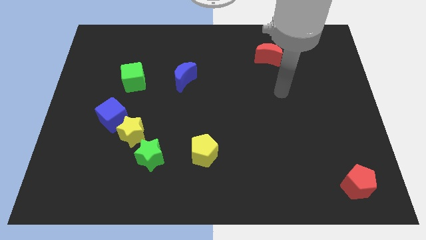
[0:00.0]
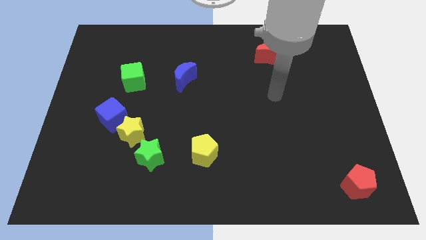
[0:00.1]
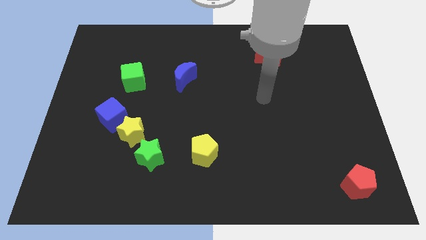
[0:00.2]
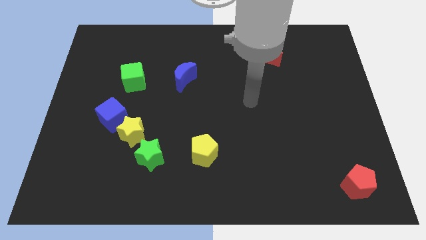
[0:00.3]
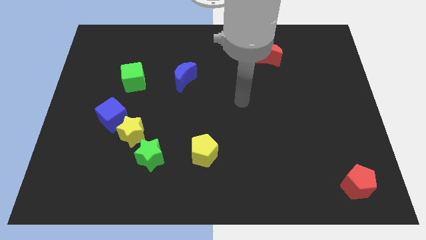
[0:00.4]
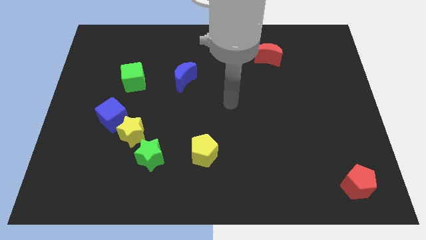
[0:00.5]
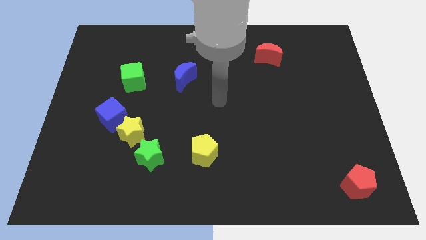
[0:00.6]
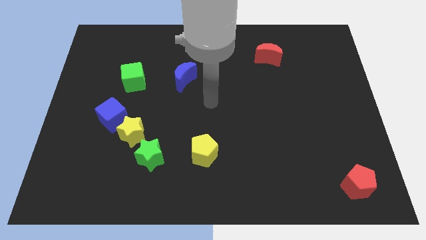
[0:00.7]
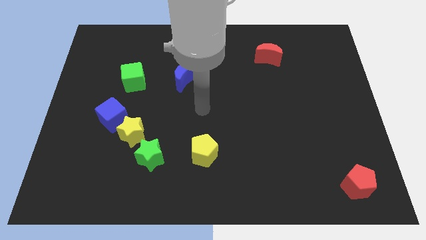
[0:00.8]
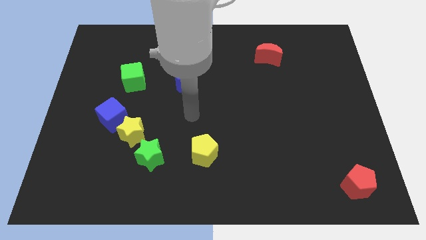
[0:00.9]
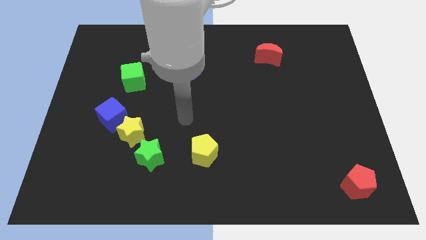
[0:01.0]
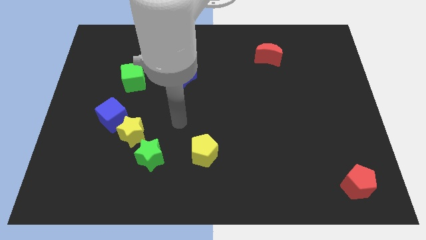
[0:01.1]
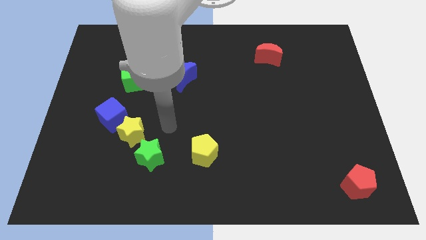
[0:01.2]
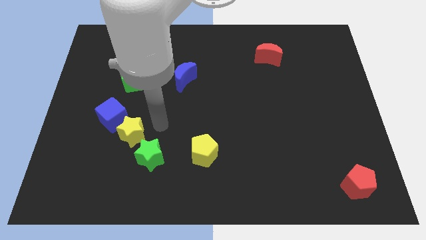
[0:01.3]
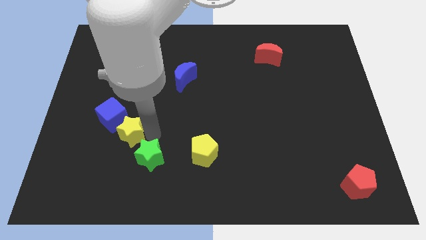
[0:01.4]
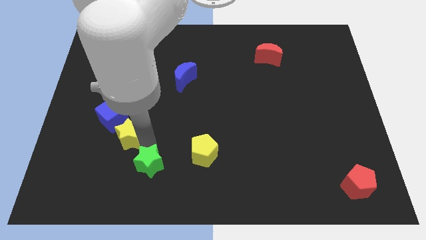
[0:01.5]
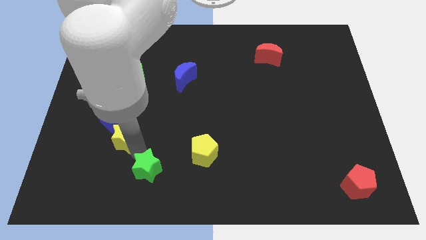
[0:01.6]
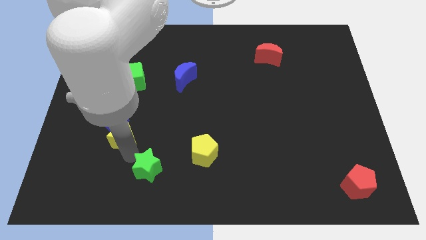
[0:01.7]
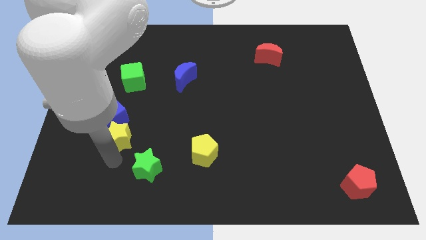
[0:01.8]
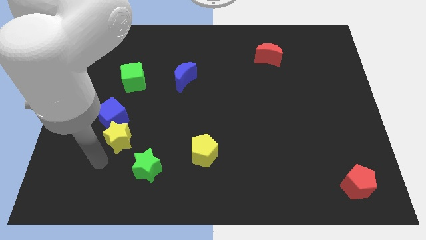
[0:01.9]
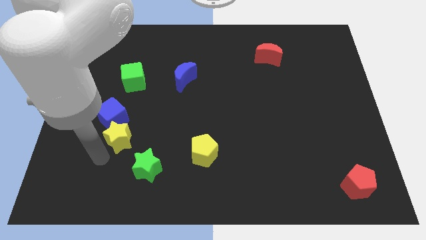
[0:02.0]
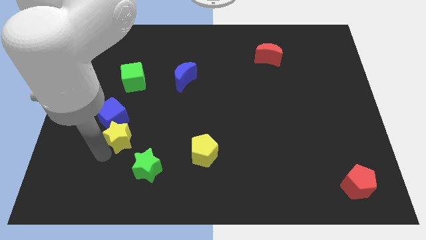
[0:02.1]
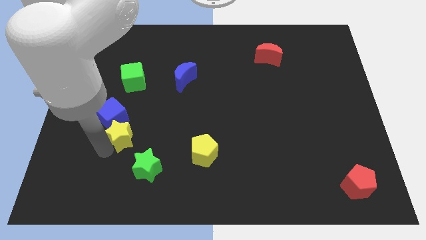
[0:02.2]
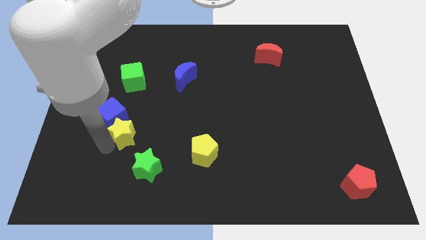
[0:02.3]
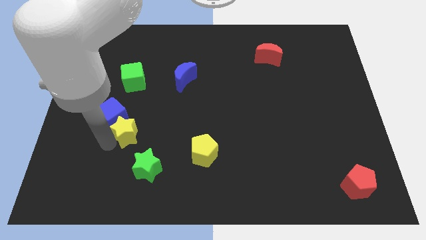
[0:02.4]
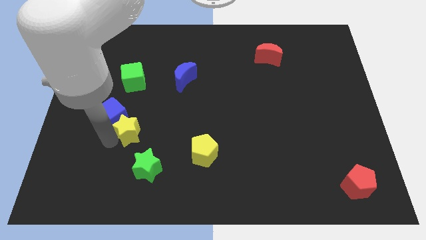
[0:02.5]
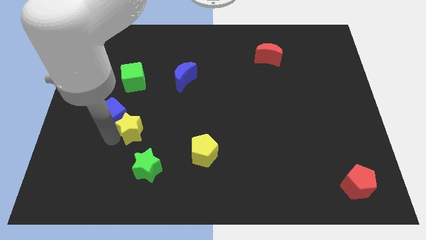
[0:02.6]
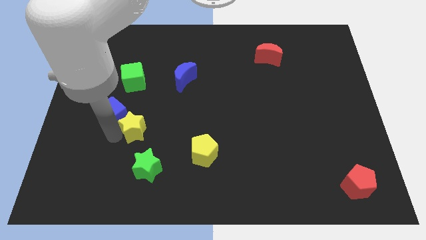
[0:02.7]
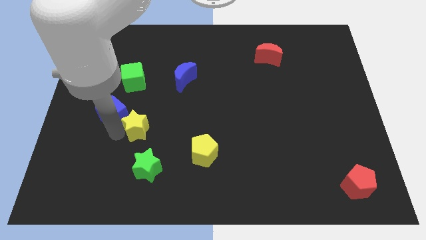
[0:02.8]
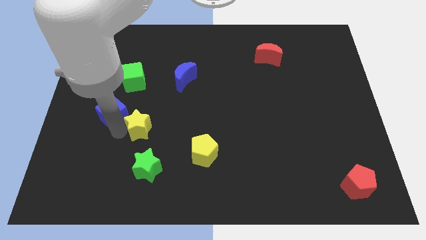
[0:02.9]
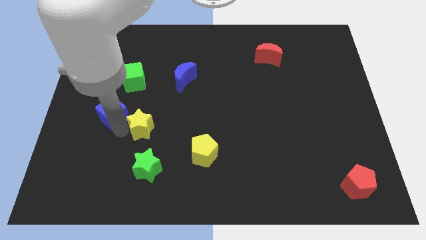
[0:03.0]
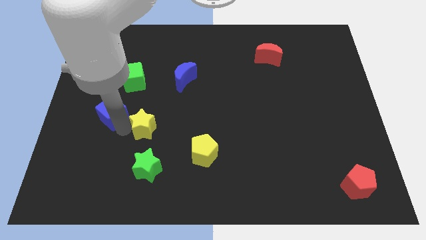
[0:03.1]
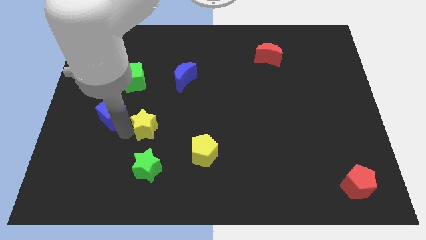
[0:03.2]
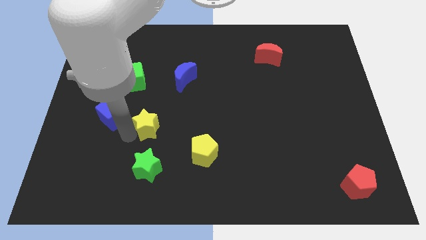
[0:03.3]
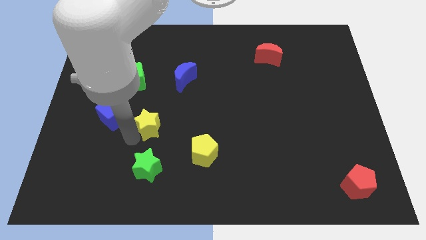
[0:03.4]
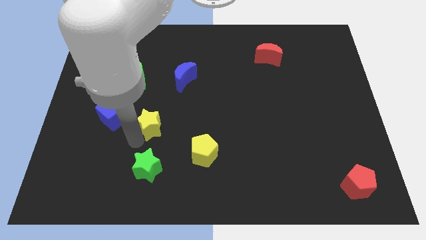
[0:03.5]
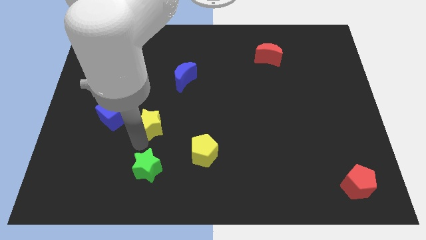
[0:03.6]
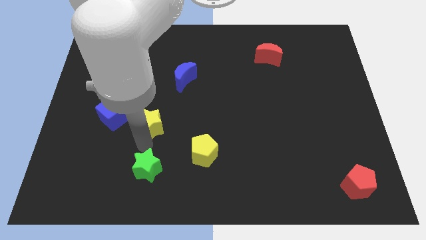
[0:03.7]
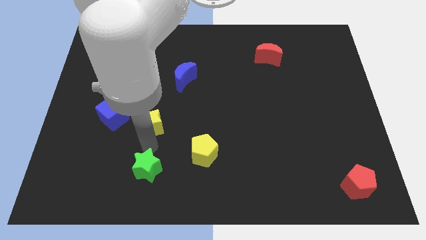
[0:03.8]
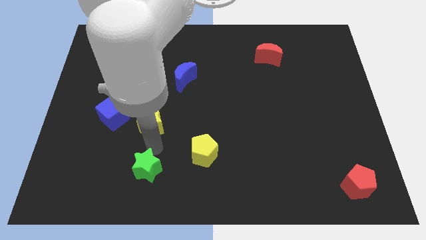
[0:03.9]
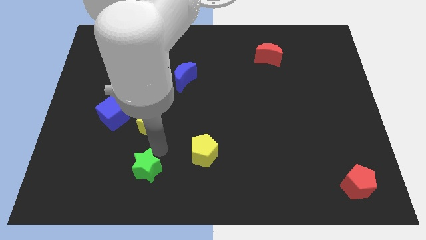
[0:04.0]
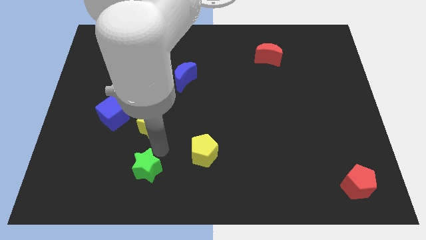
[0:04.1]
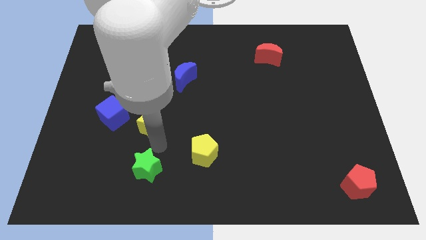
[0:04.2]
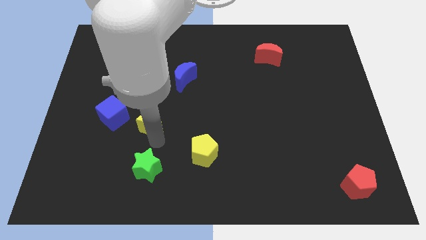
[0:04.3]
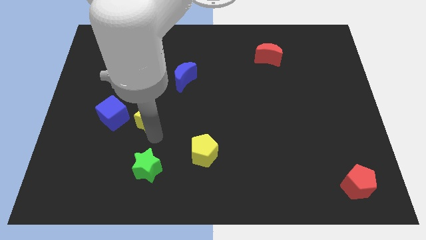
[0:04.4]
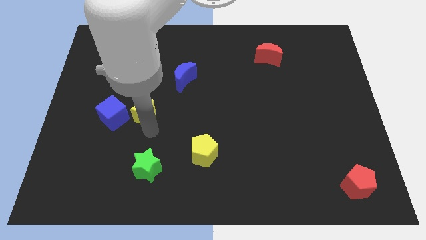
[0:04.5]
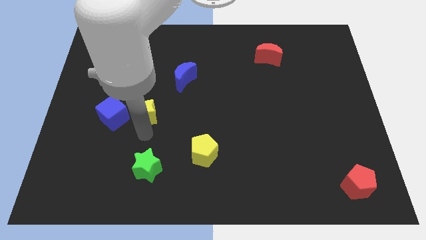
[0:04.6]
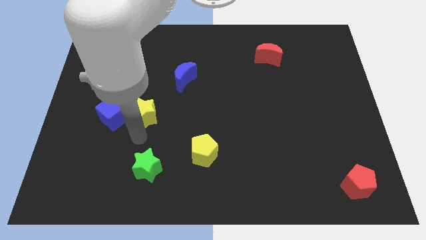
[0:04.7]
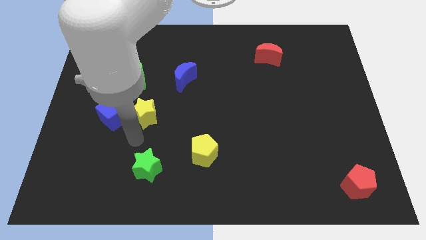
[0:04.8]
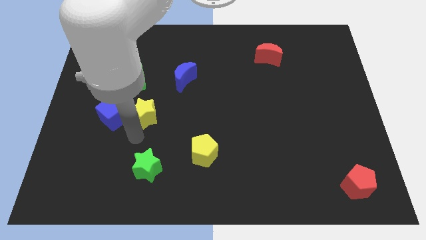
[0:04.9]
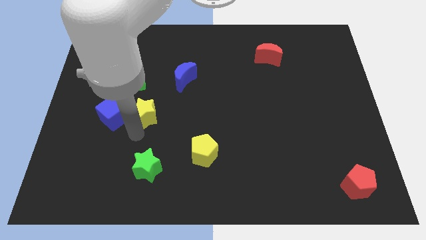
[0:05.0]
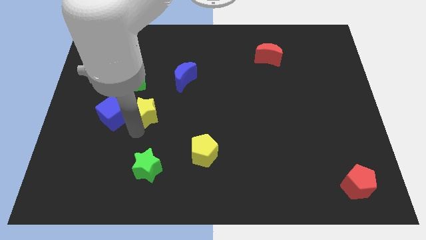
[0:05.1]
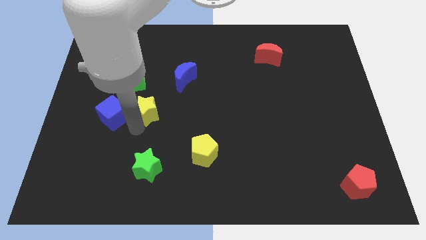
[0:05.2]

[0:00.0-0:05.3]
slide the yellow star to the bottom right side of the green cube

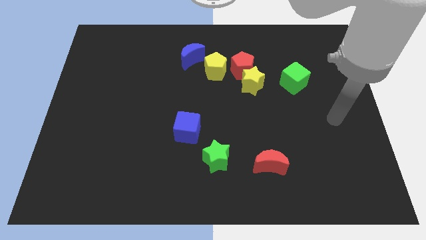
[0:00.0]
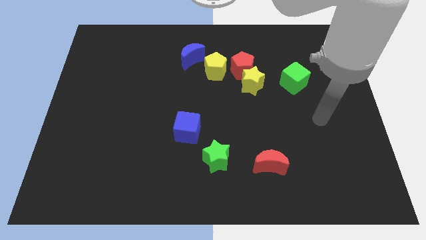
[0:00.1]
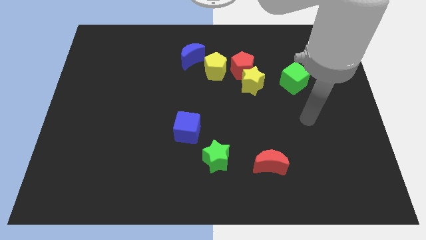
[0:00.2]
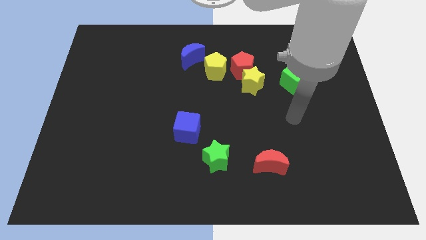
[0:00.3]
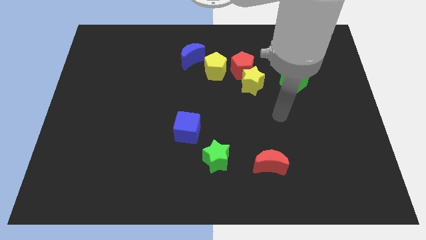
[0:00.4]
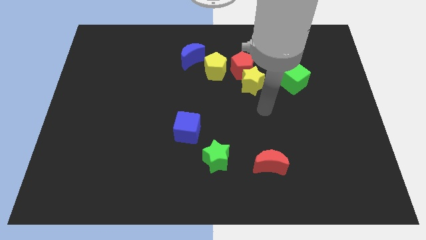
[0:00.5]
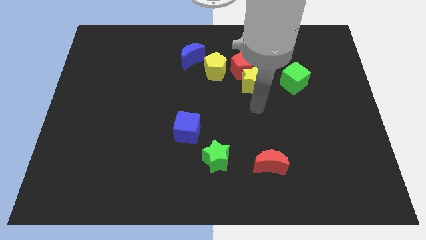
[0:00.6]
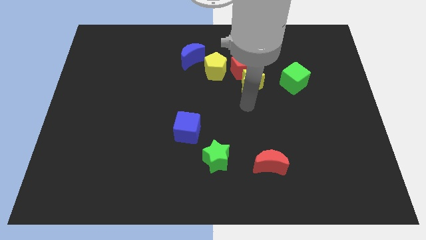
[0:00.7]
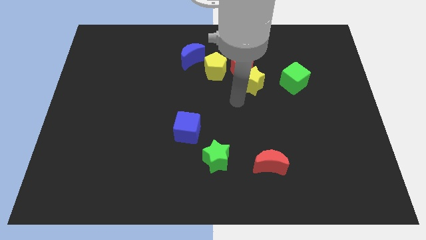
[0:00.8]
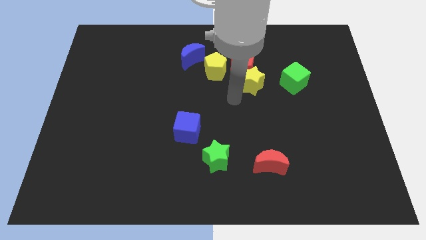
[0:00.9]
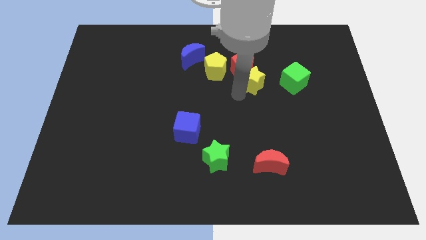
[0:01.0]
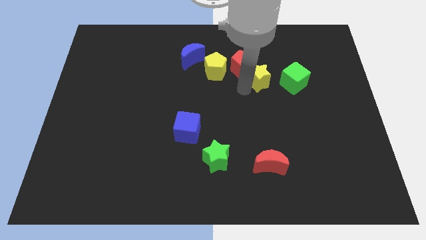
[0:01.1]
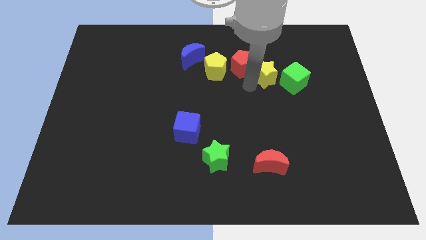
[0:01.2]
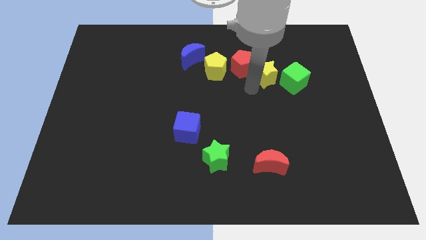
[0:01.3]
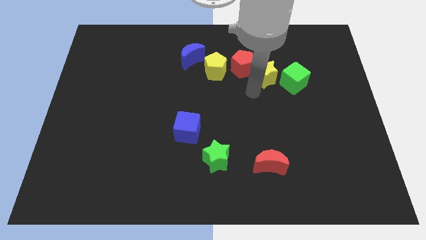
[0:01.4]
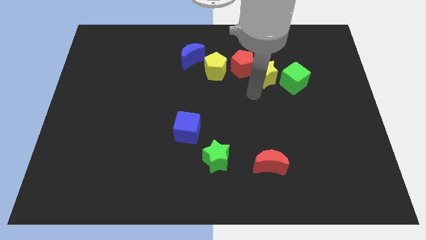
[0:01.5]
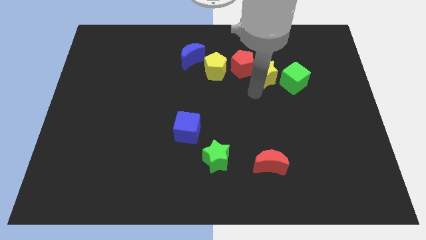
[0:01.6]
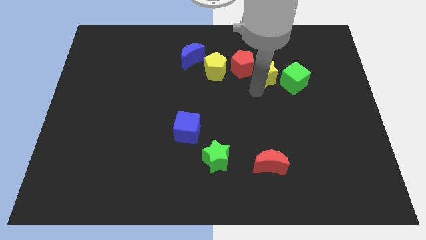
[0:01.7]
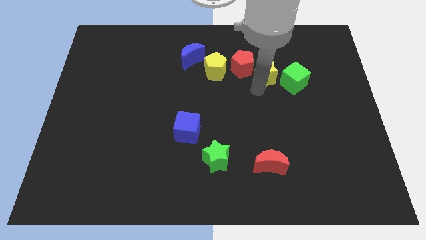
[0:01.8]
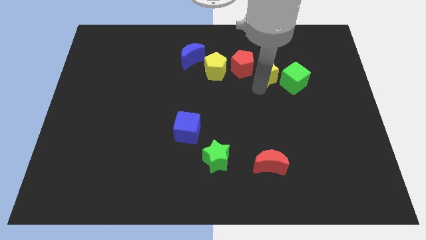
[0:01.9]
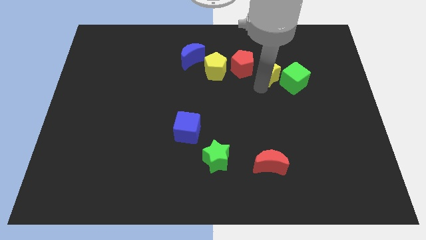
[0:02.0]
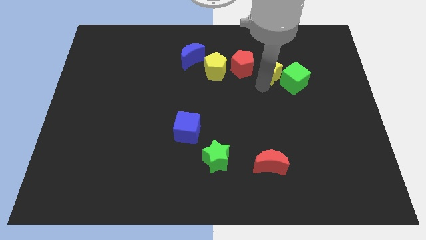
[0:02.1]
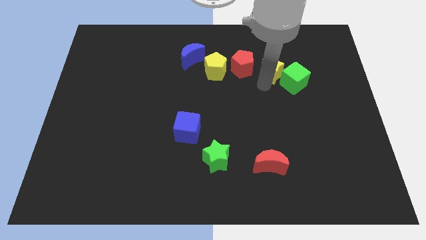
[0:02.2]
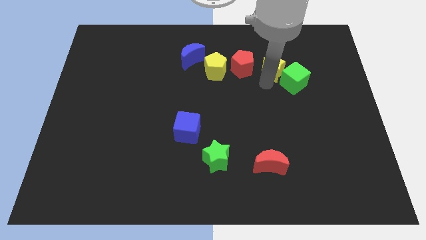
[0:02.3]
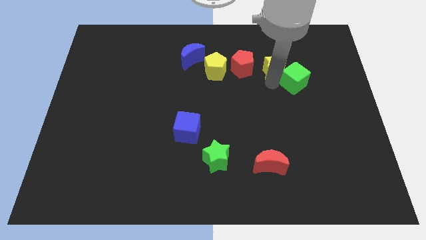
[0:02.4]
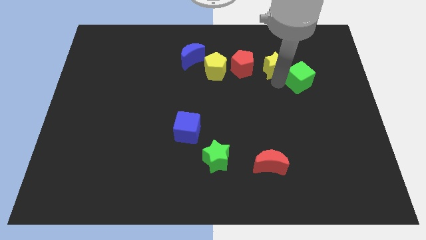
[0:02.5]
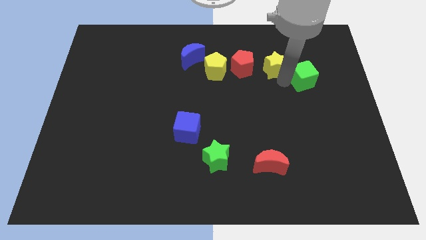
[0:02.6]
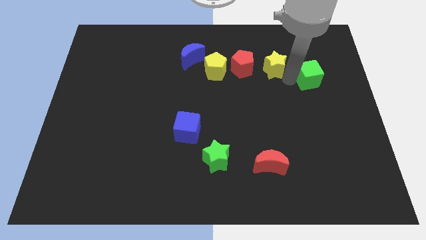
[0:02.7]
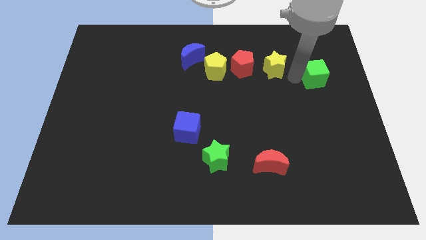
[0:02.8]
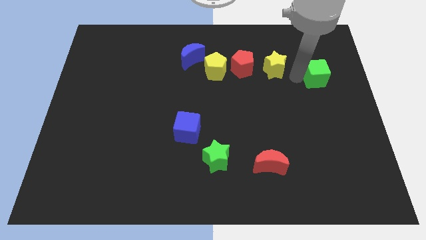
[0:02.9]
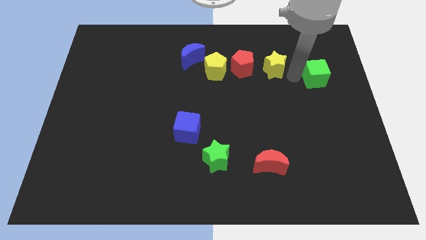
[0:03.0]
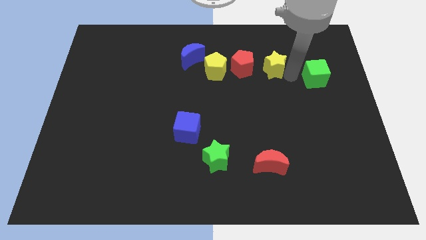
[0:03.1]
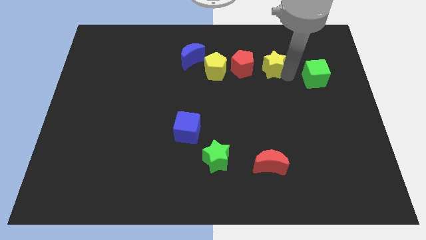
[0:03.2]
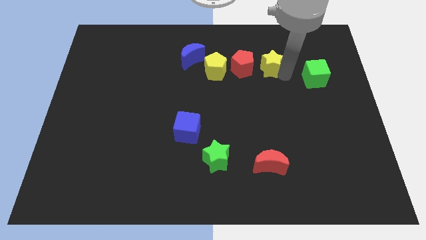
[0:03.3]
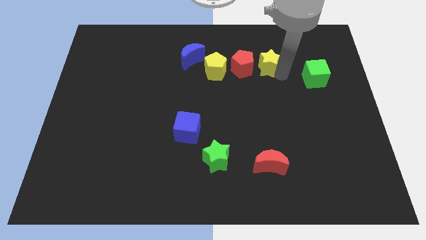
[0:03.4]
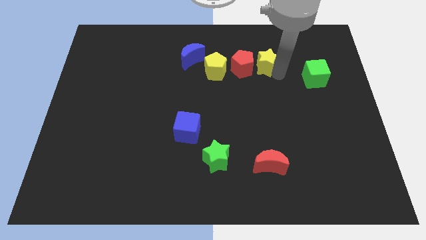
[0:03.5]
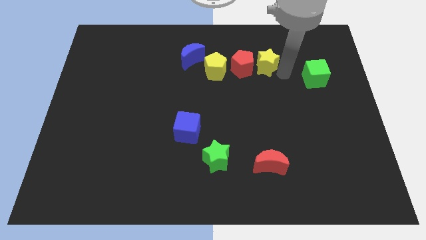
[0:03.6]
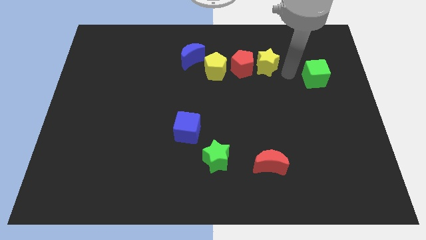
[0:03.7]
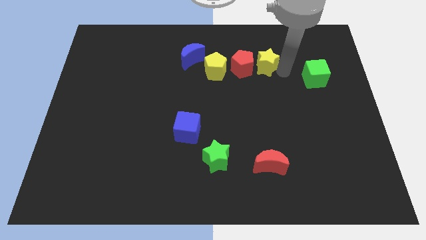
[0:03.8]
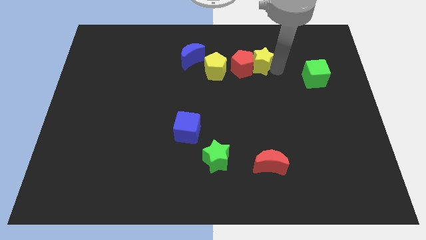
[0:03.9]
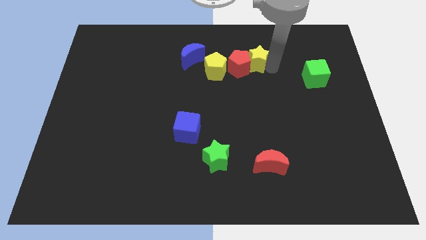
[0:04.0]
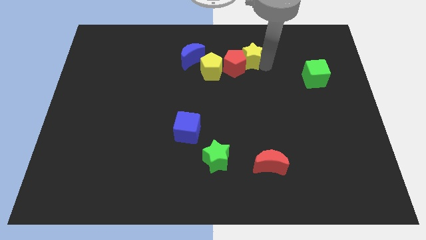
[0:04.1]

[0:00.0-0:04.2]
push the yellow star to the top right of the yellow pentagon
